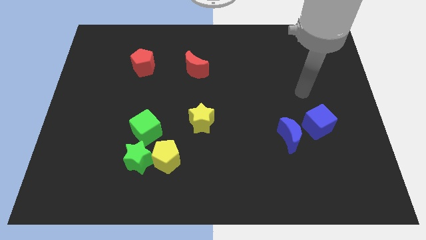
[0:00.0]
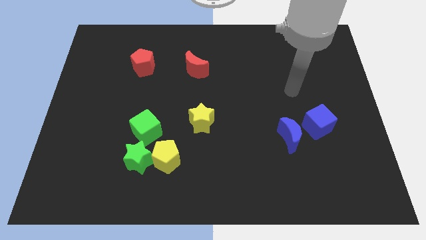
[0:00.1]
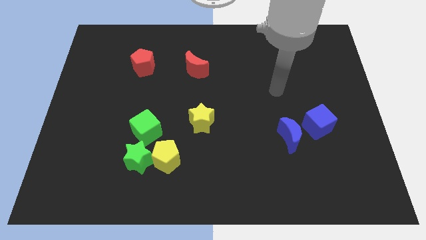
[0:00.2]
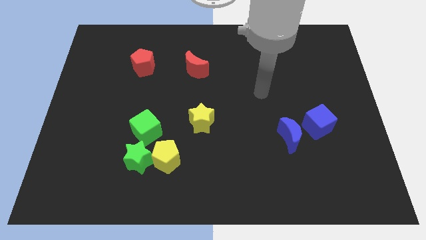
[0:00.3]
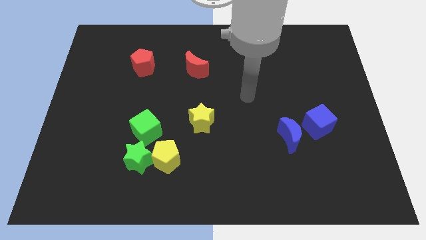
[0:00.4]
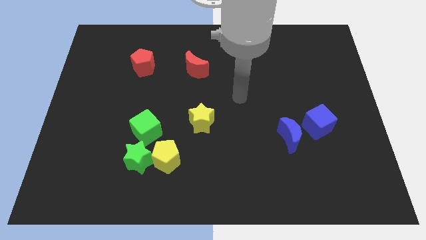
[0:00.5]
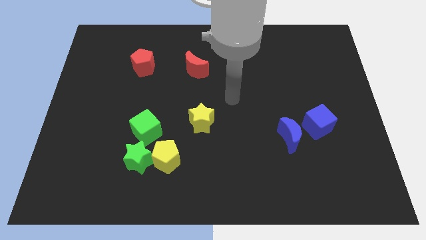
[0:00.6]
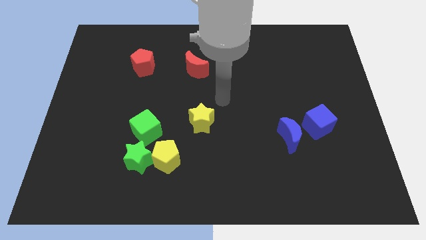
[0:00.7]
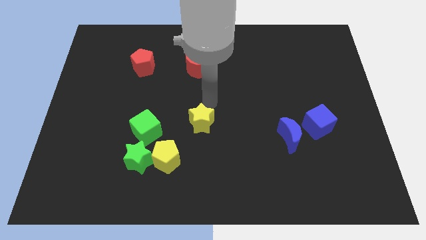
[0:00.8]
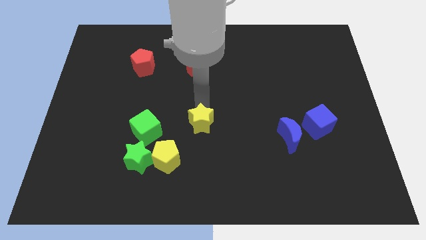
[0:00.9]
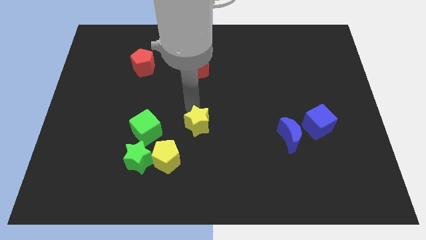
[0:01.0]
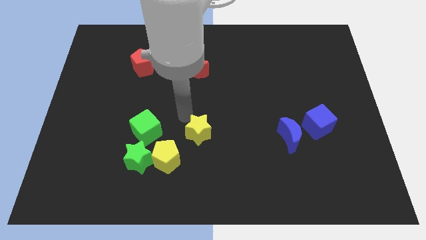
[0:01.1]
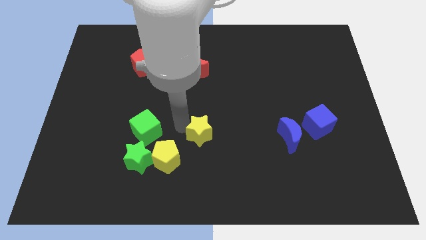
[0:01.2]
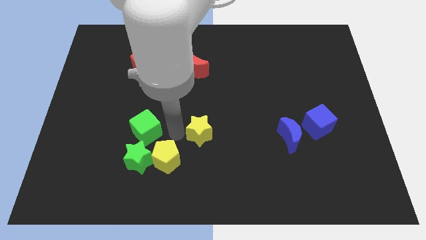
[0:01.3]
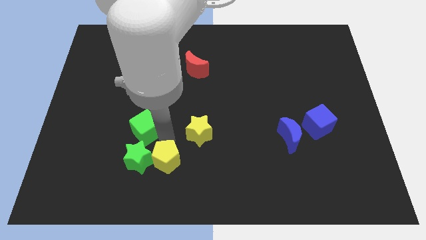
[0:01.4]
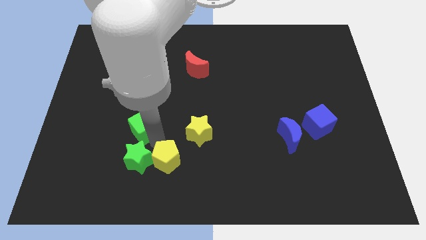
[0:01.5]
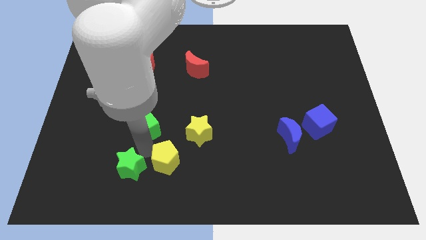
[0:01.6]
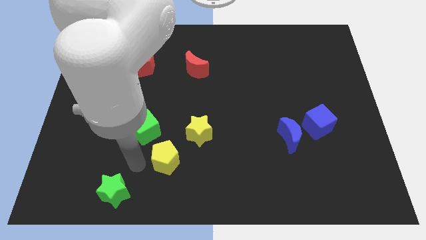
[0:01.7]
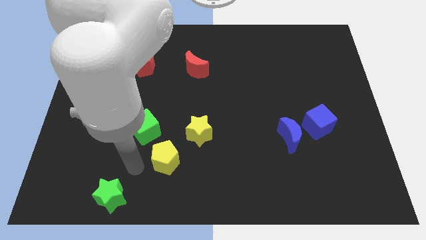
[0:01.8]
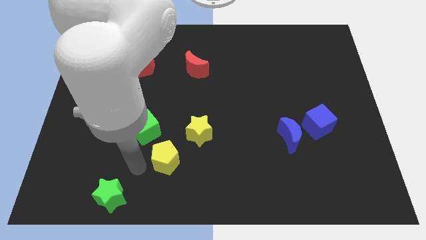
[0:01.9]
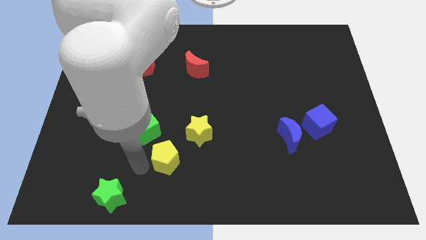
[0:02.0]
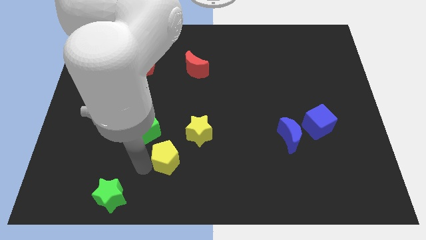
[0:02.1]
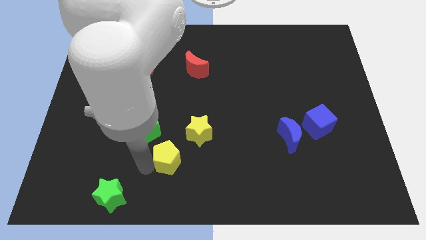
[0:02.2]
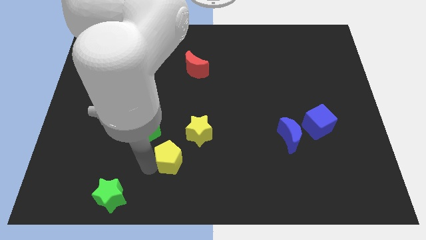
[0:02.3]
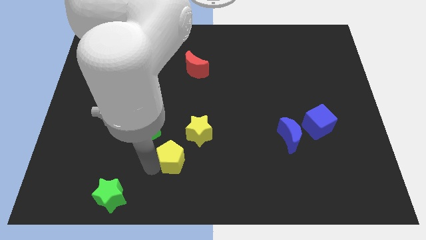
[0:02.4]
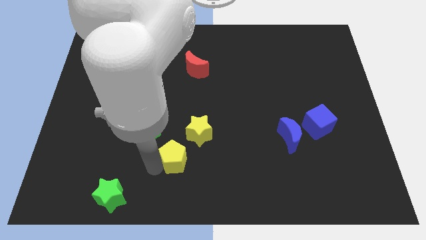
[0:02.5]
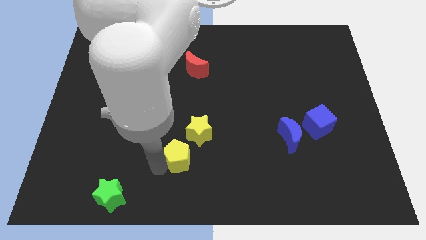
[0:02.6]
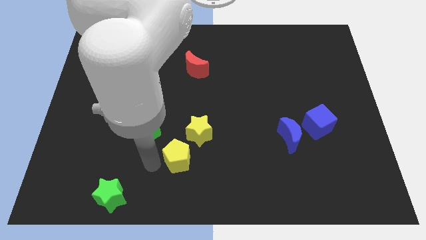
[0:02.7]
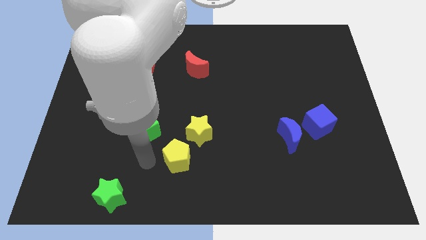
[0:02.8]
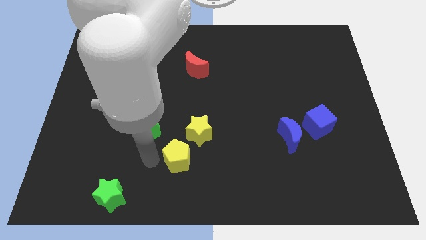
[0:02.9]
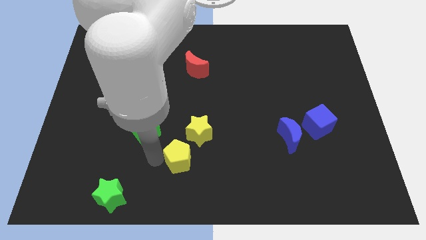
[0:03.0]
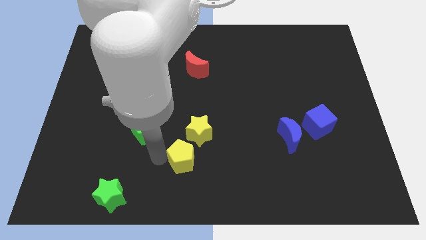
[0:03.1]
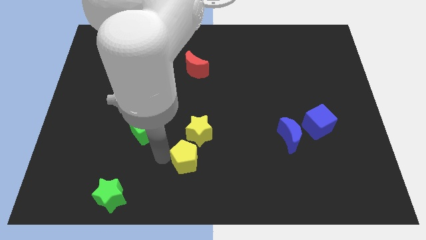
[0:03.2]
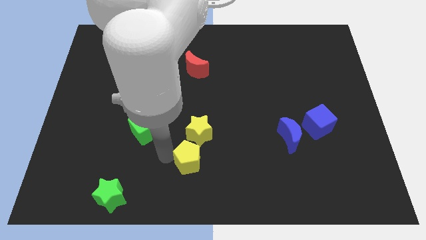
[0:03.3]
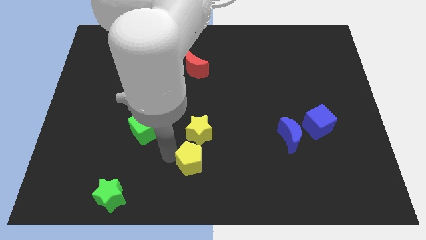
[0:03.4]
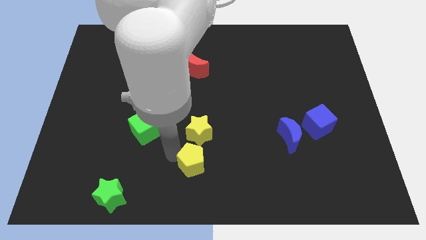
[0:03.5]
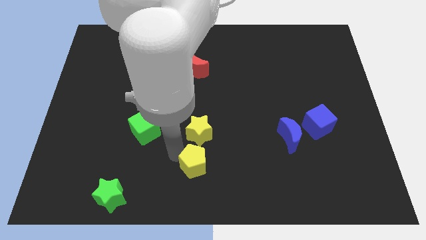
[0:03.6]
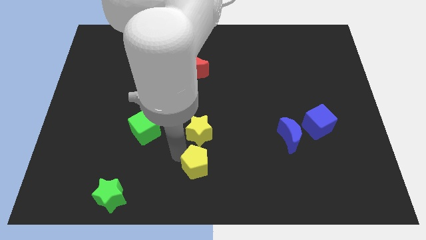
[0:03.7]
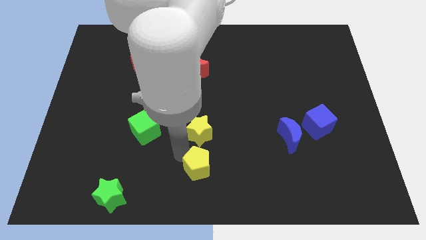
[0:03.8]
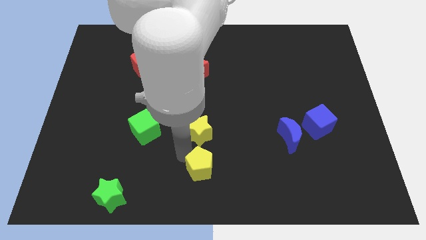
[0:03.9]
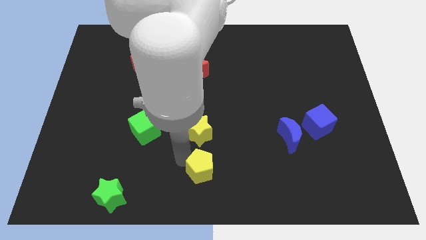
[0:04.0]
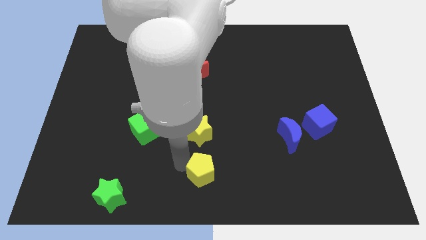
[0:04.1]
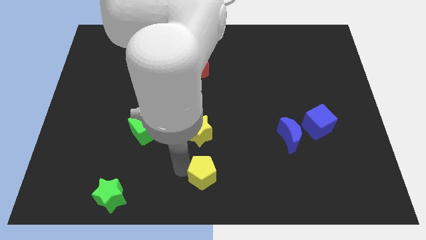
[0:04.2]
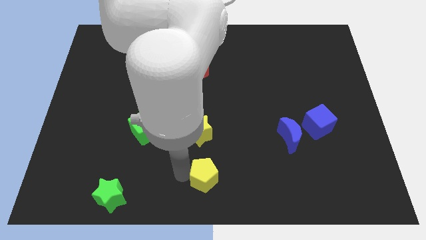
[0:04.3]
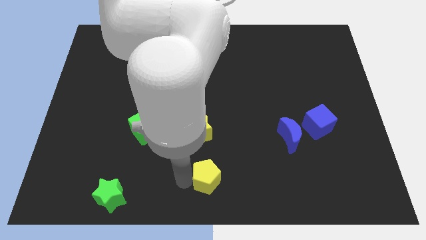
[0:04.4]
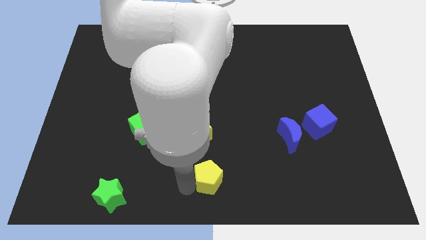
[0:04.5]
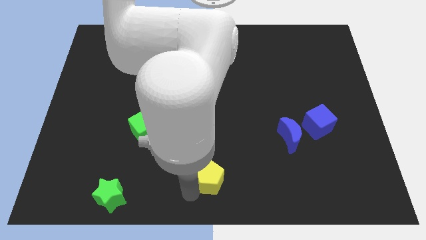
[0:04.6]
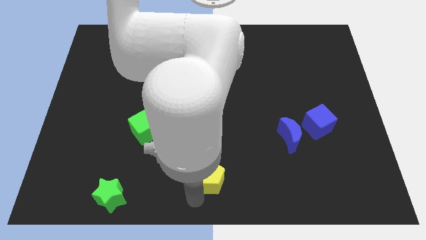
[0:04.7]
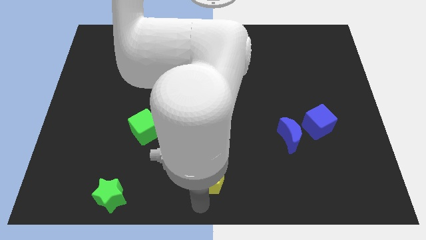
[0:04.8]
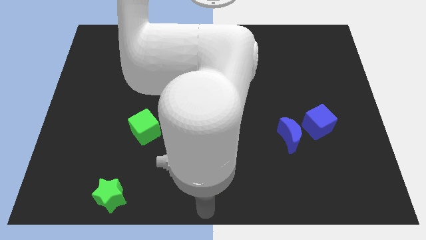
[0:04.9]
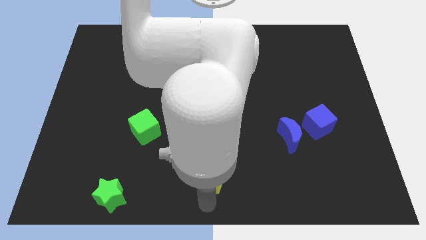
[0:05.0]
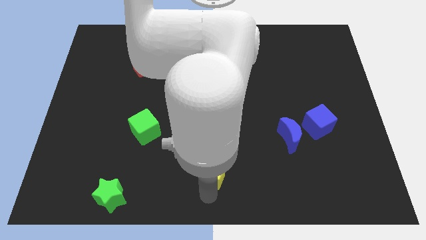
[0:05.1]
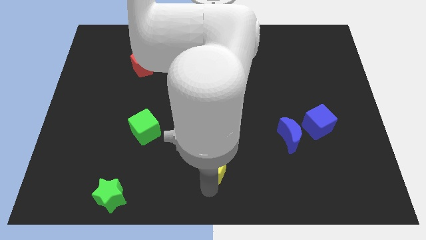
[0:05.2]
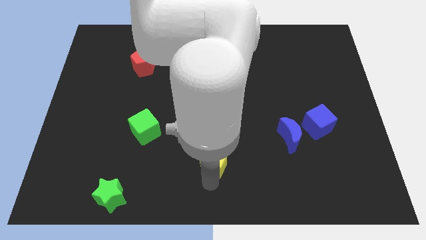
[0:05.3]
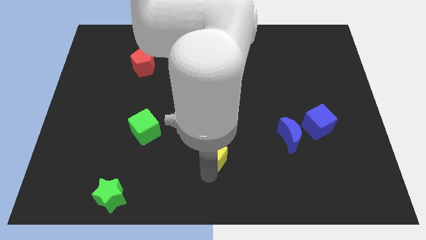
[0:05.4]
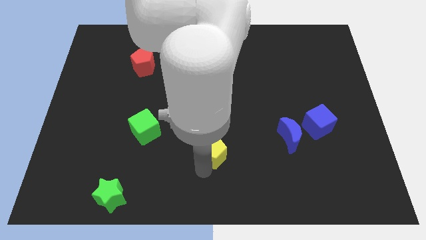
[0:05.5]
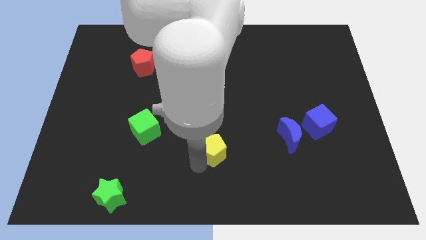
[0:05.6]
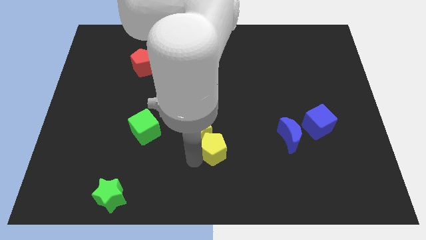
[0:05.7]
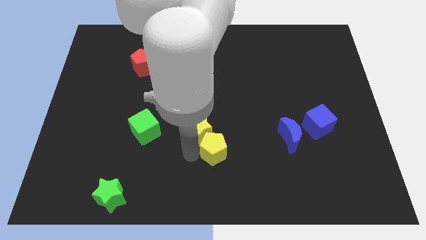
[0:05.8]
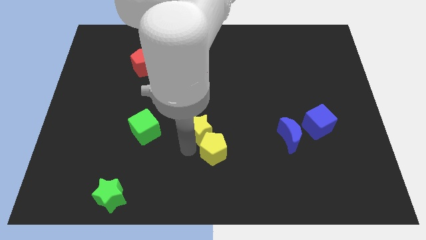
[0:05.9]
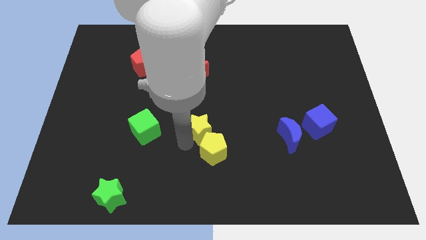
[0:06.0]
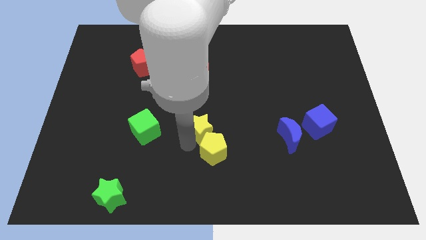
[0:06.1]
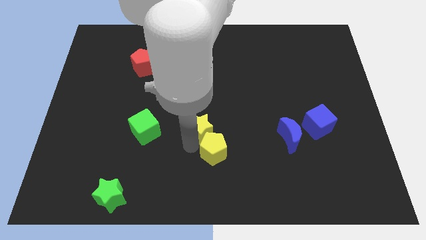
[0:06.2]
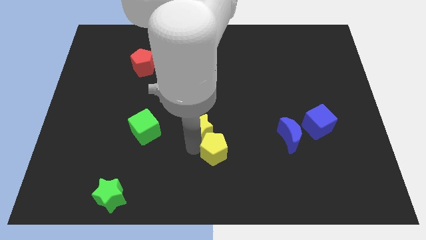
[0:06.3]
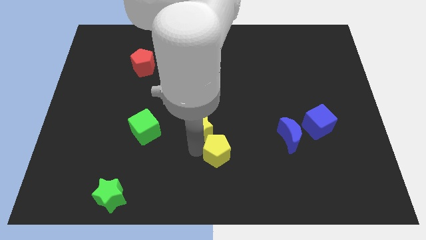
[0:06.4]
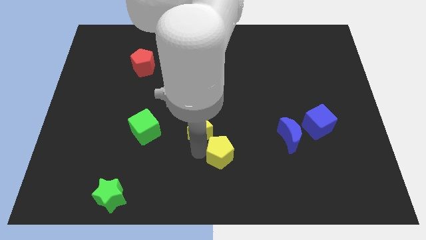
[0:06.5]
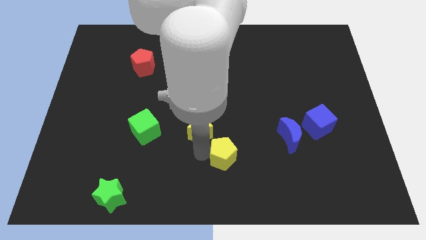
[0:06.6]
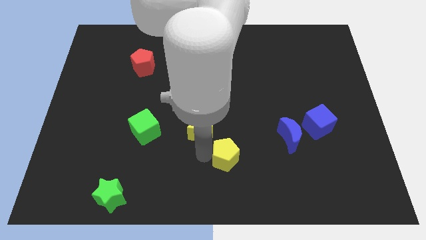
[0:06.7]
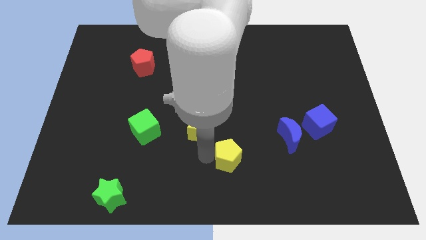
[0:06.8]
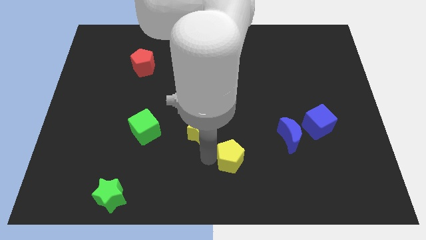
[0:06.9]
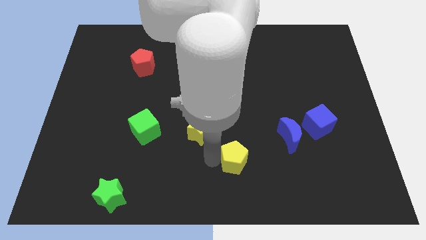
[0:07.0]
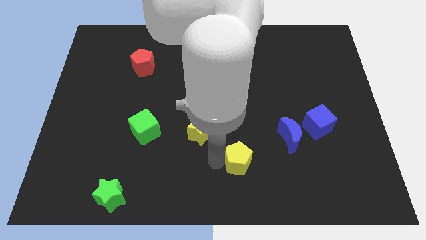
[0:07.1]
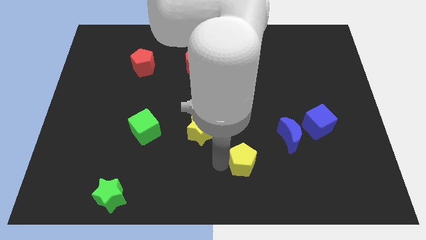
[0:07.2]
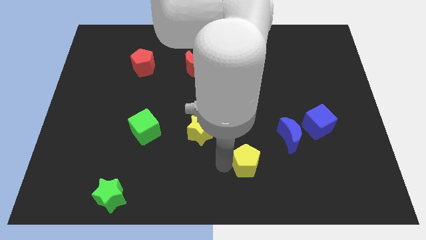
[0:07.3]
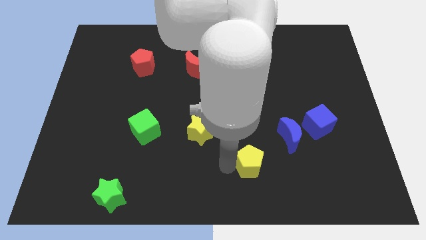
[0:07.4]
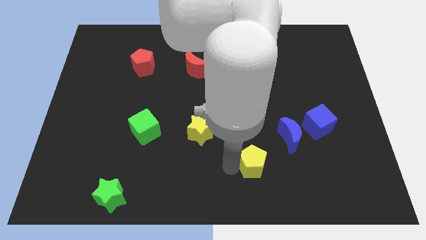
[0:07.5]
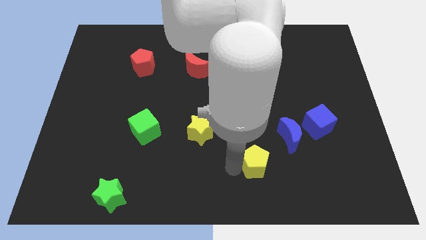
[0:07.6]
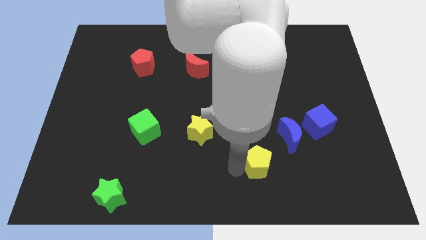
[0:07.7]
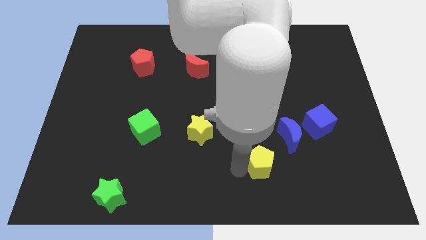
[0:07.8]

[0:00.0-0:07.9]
slide the yellow pentagon to the right

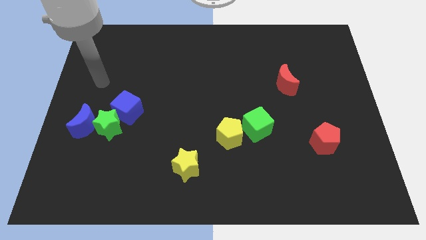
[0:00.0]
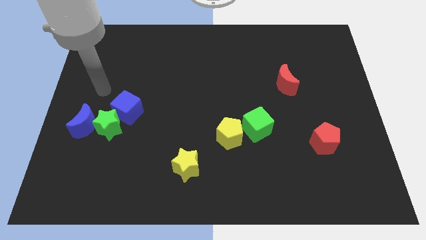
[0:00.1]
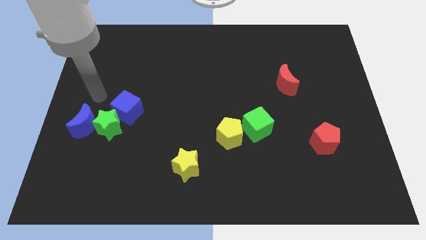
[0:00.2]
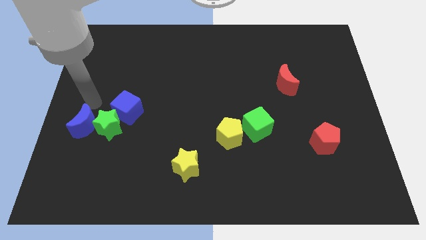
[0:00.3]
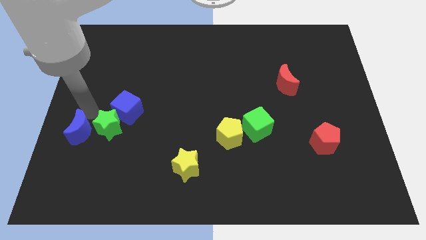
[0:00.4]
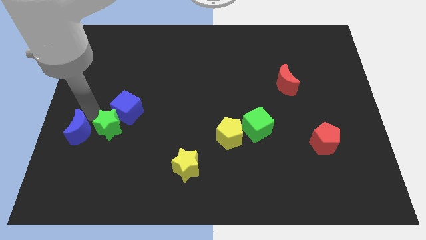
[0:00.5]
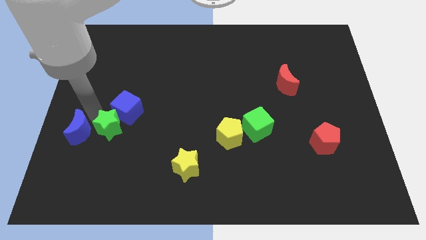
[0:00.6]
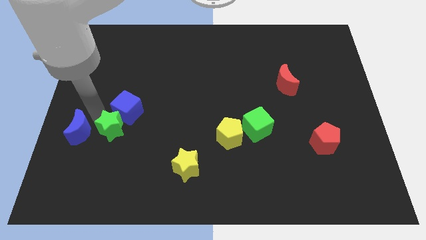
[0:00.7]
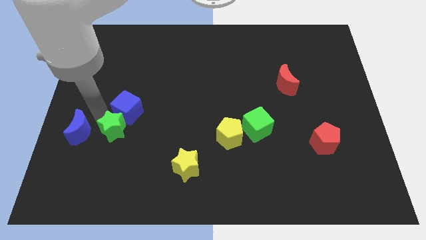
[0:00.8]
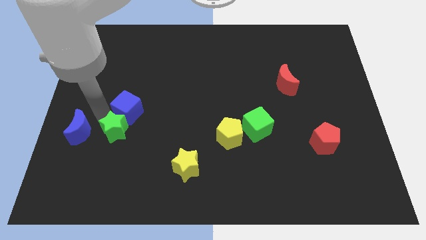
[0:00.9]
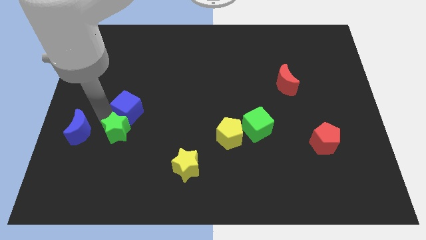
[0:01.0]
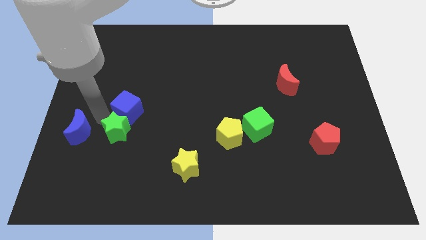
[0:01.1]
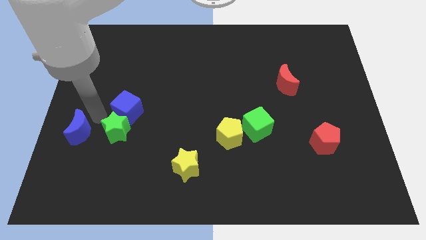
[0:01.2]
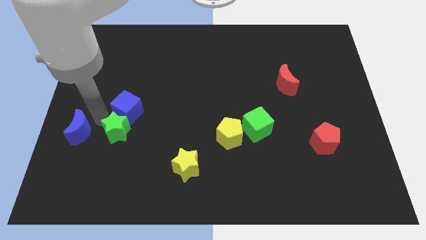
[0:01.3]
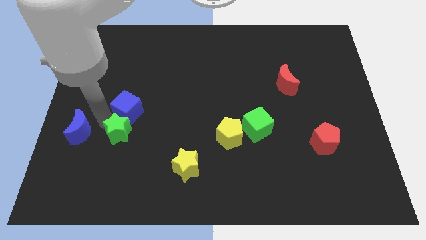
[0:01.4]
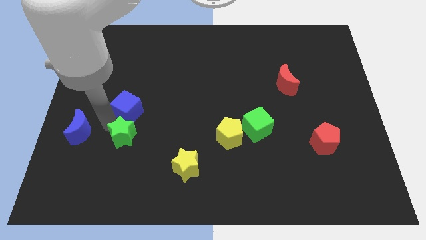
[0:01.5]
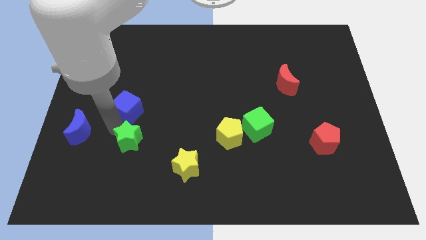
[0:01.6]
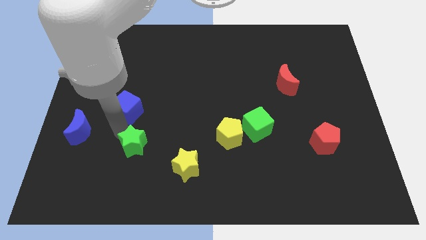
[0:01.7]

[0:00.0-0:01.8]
slightly move the green star down and then right
